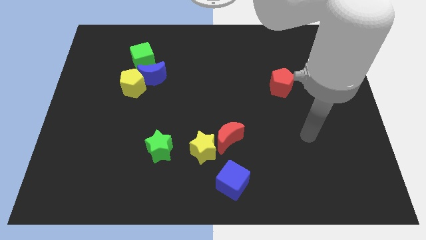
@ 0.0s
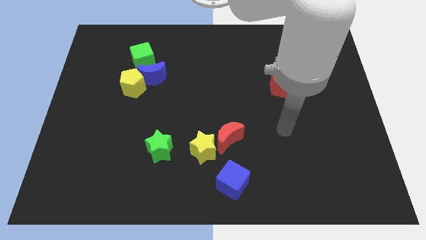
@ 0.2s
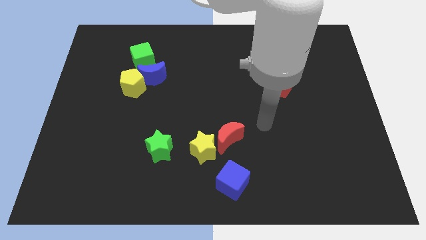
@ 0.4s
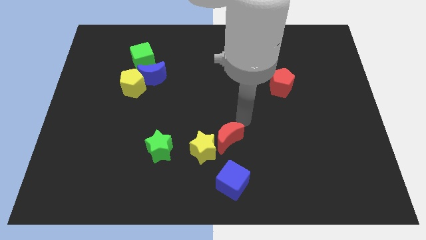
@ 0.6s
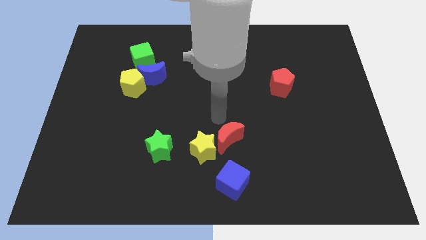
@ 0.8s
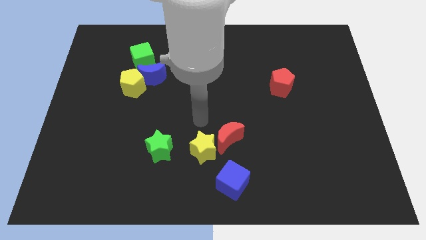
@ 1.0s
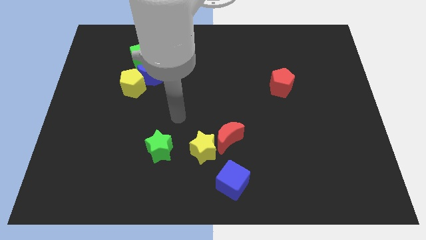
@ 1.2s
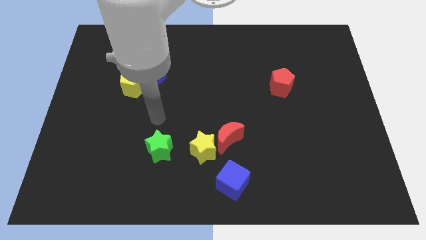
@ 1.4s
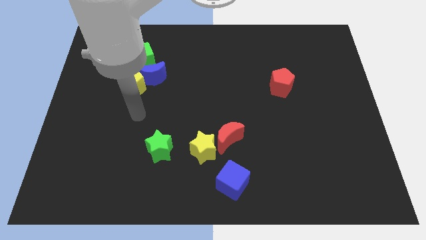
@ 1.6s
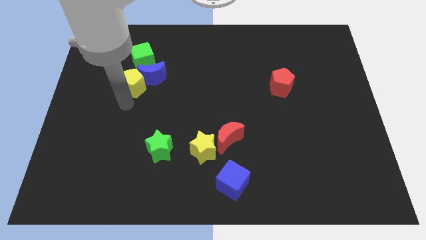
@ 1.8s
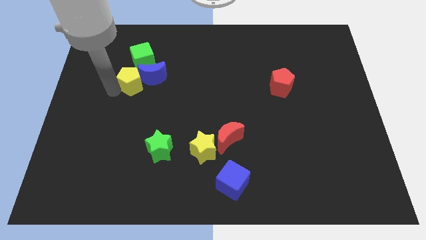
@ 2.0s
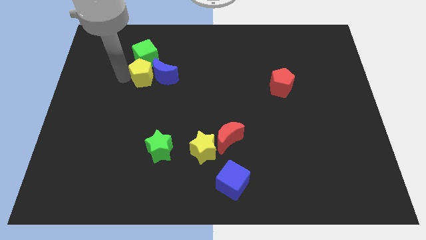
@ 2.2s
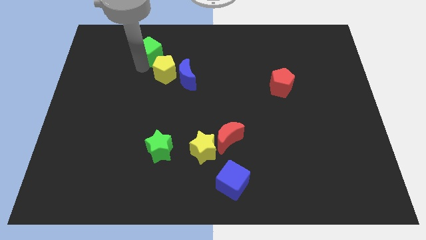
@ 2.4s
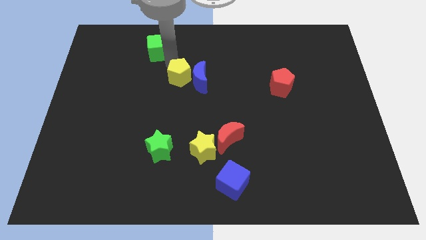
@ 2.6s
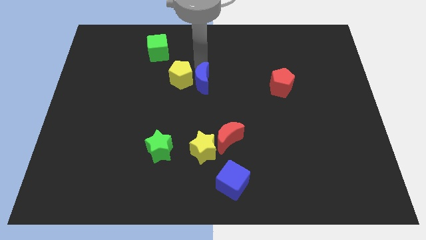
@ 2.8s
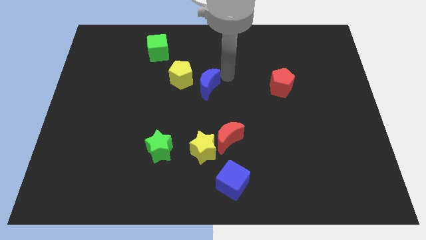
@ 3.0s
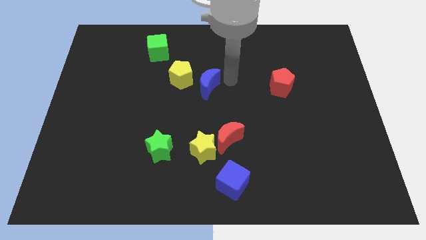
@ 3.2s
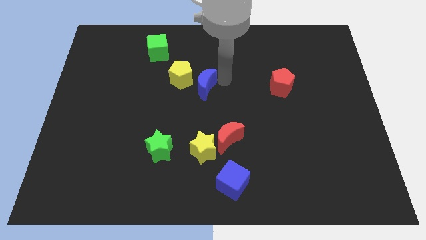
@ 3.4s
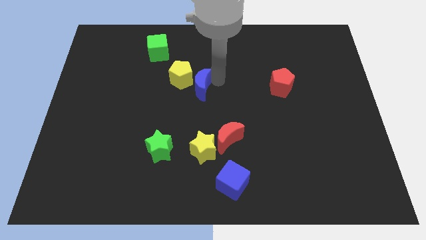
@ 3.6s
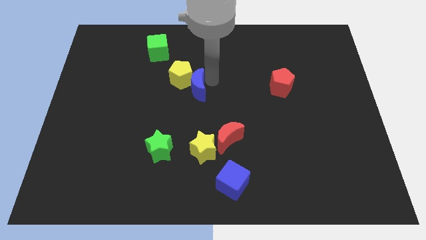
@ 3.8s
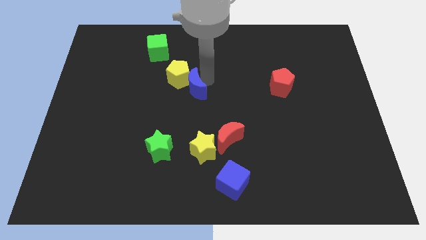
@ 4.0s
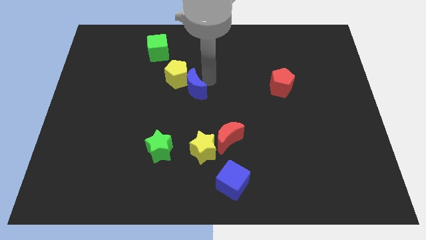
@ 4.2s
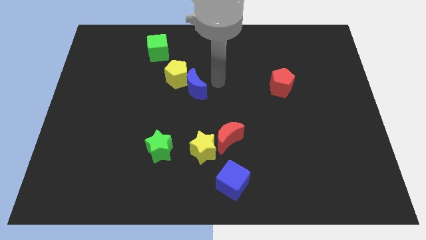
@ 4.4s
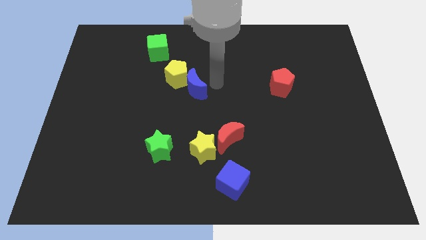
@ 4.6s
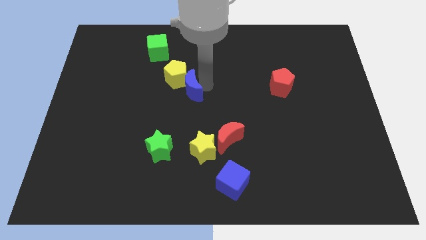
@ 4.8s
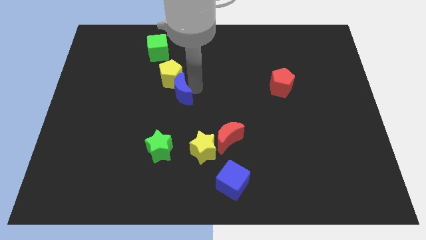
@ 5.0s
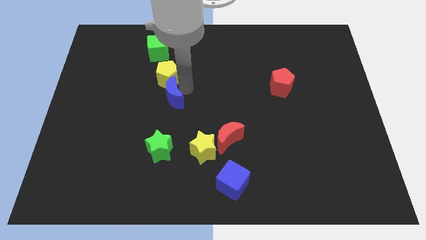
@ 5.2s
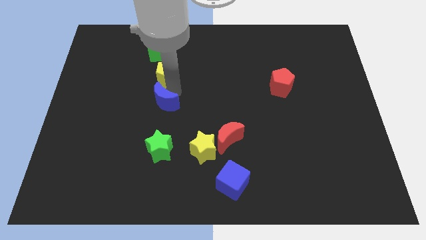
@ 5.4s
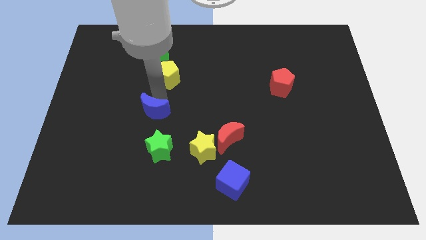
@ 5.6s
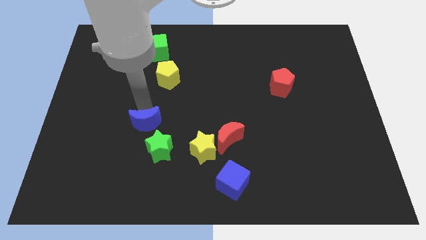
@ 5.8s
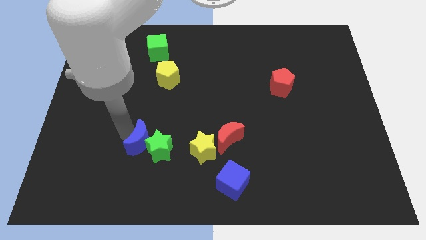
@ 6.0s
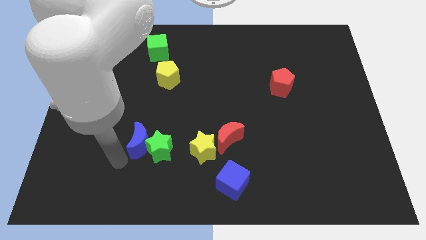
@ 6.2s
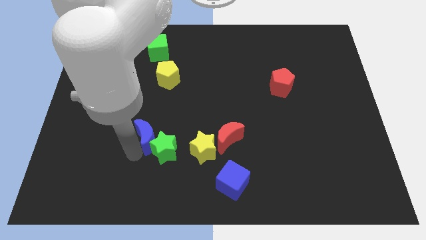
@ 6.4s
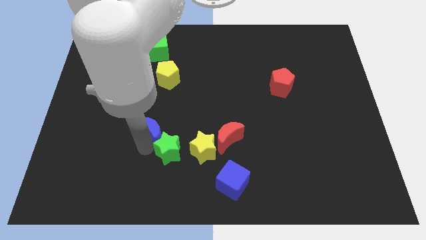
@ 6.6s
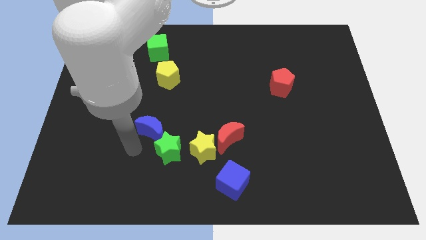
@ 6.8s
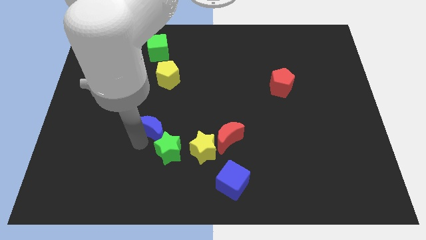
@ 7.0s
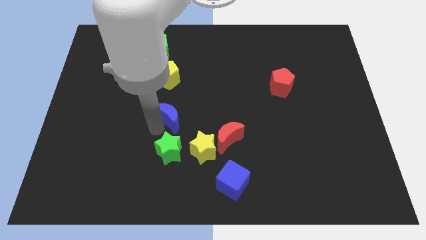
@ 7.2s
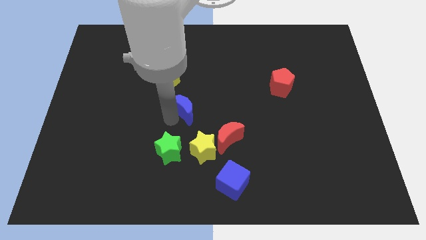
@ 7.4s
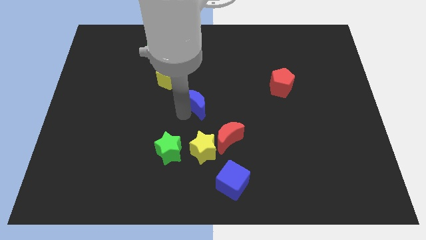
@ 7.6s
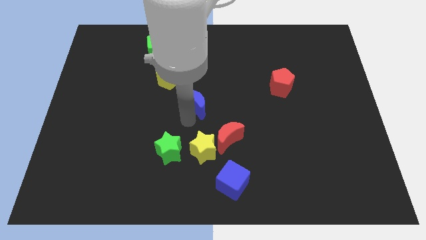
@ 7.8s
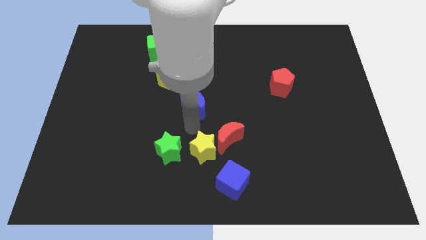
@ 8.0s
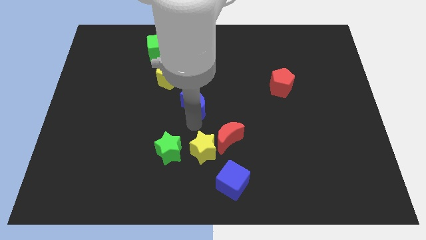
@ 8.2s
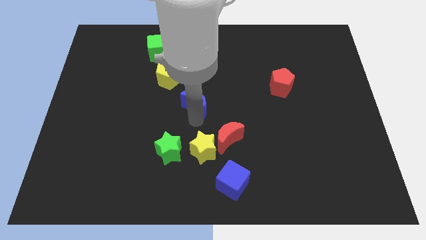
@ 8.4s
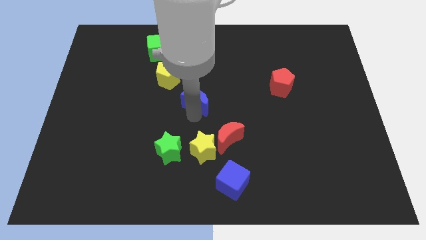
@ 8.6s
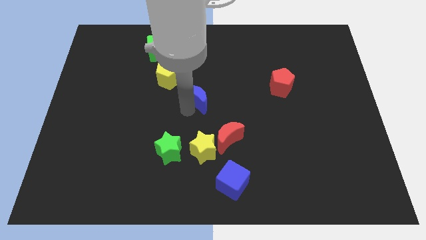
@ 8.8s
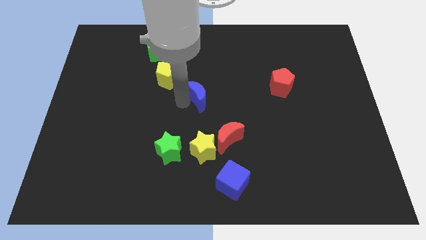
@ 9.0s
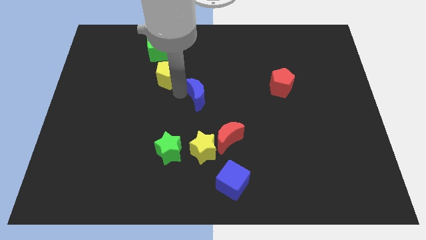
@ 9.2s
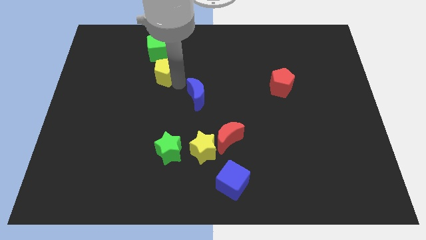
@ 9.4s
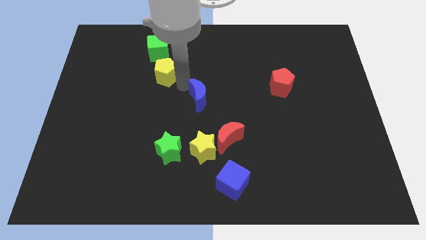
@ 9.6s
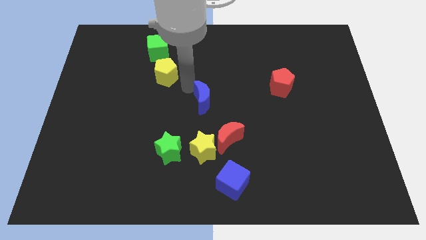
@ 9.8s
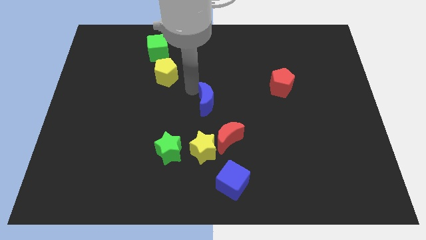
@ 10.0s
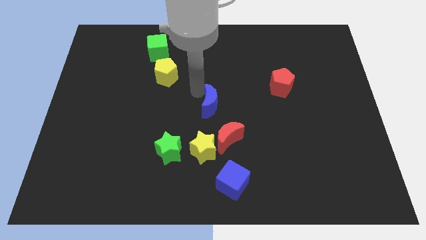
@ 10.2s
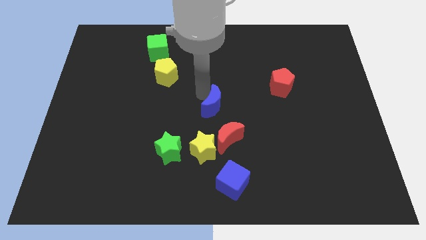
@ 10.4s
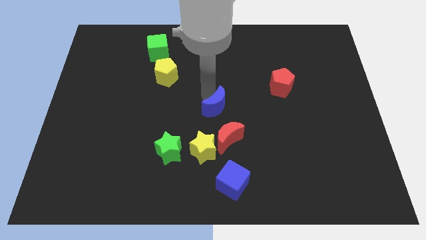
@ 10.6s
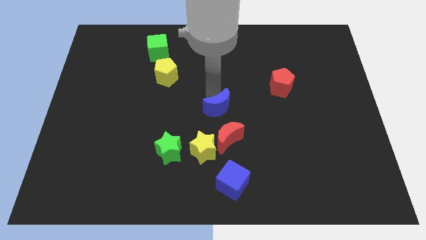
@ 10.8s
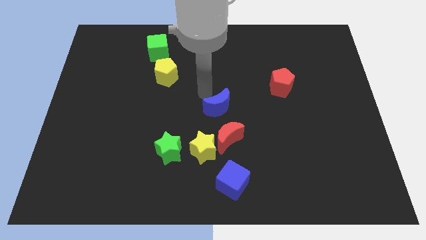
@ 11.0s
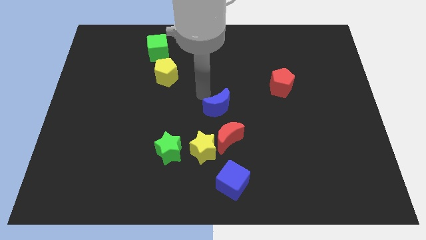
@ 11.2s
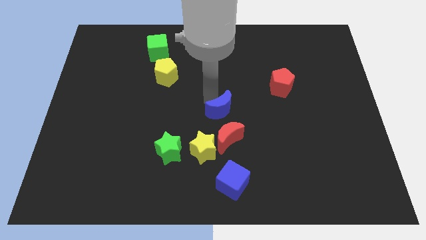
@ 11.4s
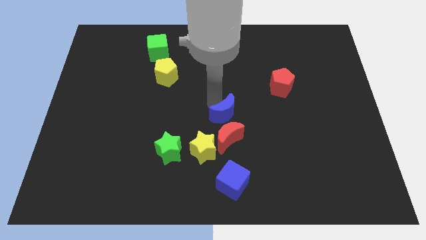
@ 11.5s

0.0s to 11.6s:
push the blue moon diagonally downwards and right

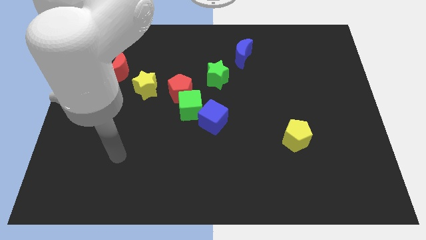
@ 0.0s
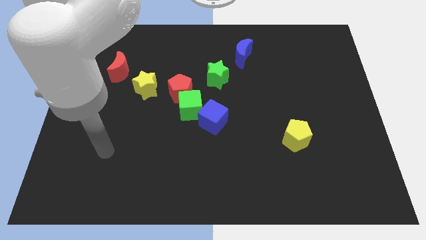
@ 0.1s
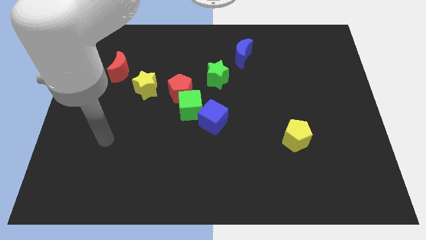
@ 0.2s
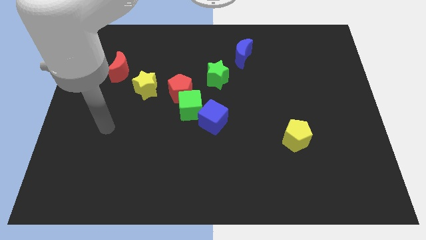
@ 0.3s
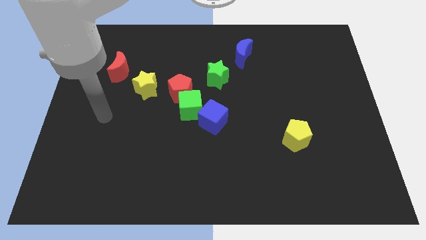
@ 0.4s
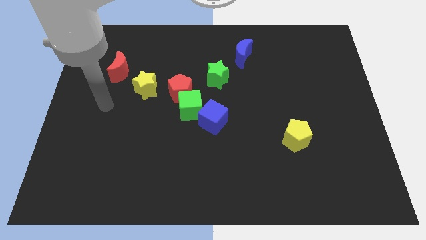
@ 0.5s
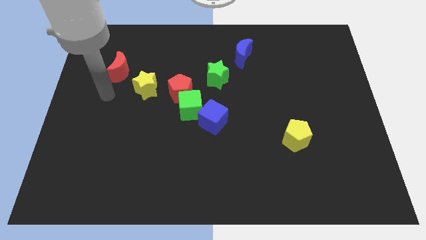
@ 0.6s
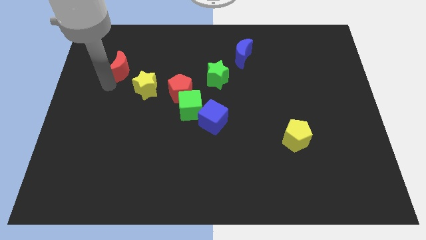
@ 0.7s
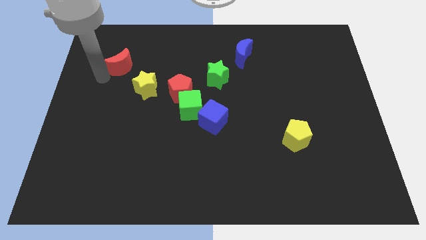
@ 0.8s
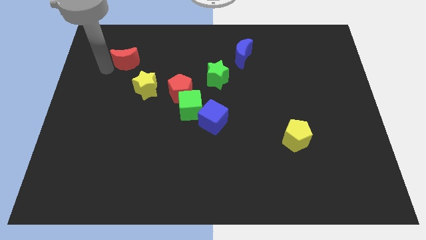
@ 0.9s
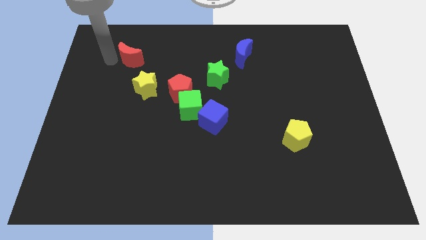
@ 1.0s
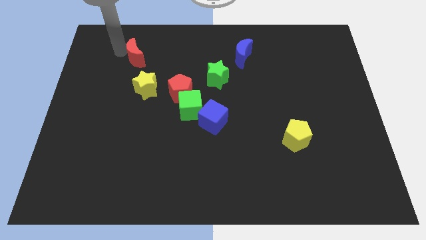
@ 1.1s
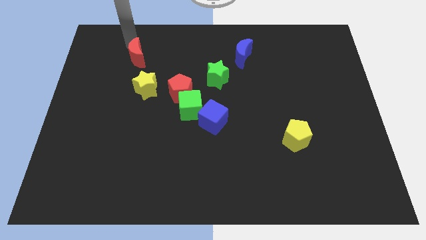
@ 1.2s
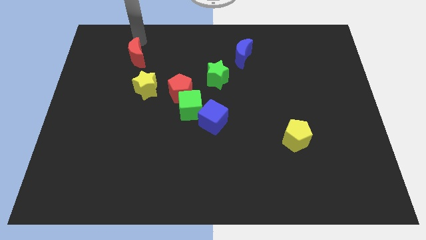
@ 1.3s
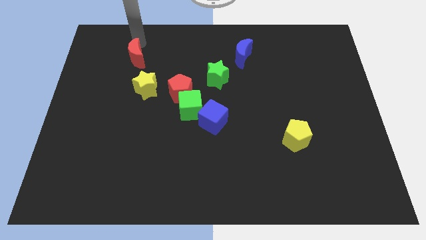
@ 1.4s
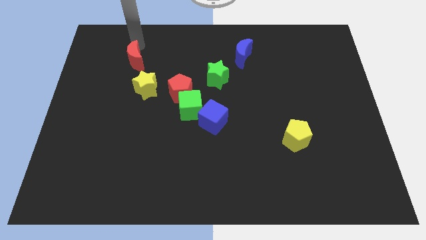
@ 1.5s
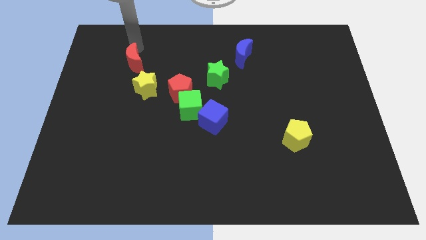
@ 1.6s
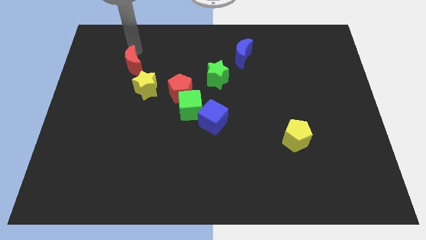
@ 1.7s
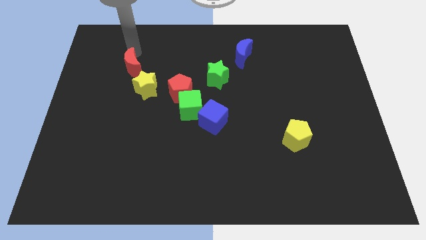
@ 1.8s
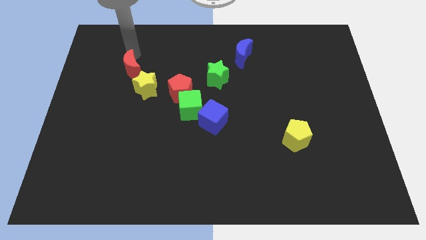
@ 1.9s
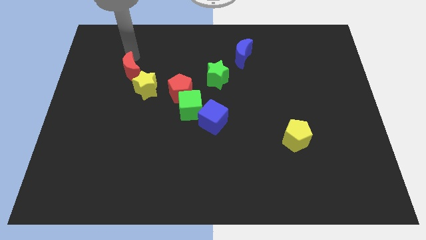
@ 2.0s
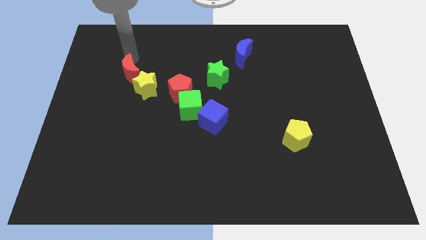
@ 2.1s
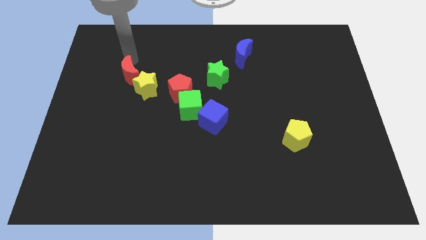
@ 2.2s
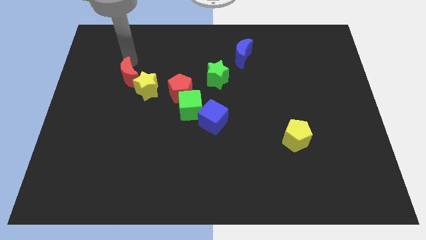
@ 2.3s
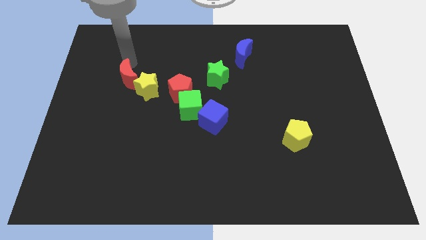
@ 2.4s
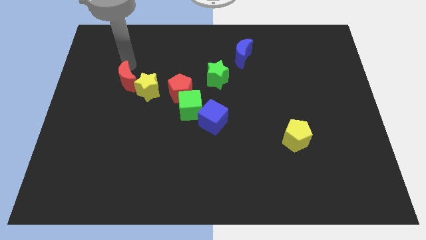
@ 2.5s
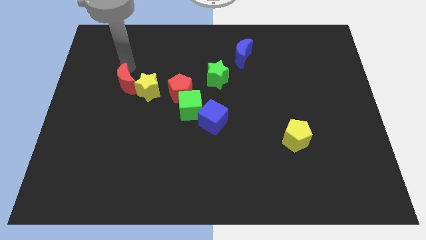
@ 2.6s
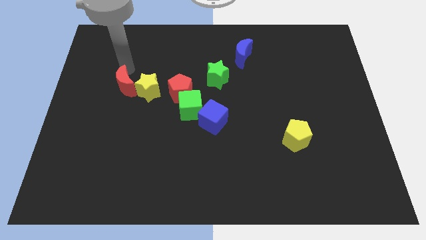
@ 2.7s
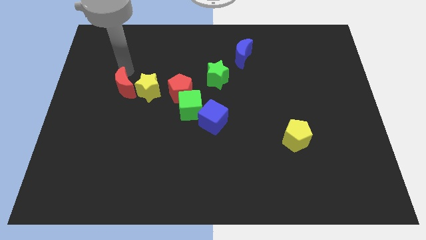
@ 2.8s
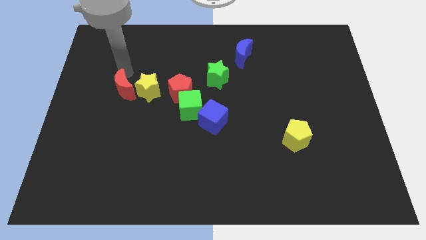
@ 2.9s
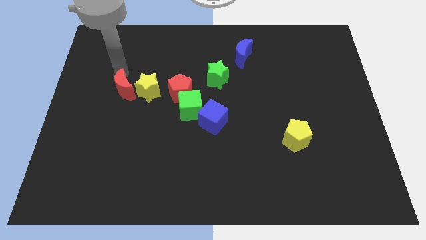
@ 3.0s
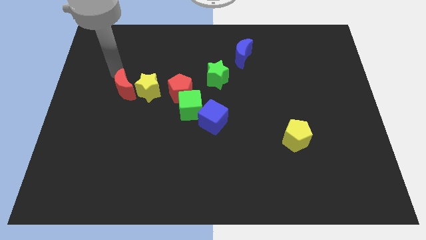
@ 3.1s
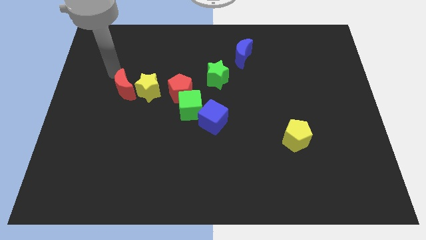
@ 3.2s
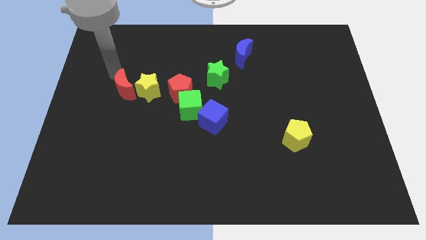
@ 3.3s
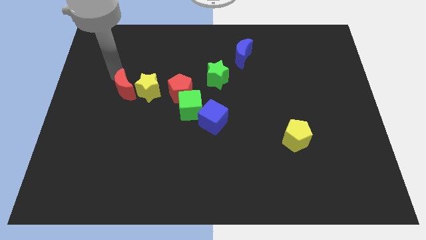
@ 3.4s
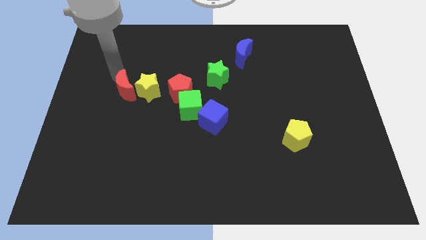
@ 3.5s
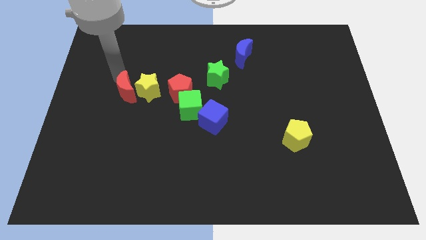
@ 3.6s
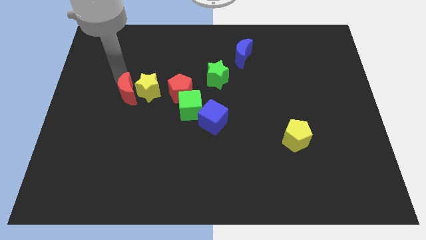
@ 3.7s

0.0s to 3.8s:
slightly push the red moon diagonally down and right
